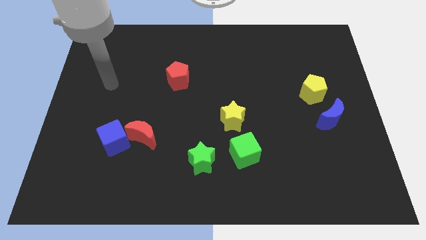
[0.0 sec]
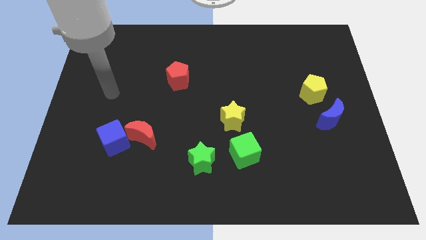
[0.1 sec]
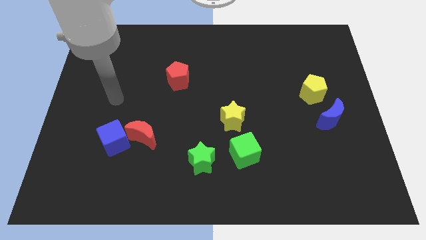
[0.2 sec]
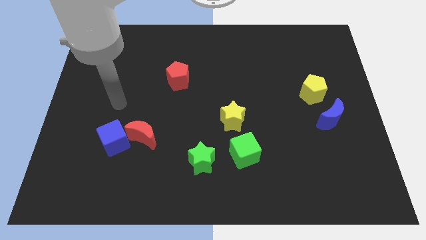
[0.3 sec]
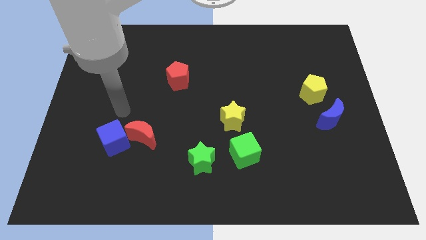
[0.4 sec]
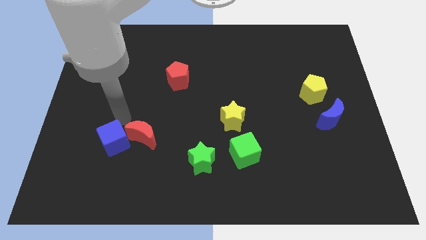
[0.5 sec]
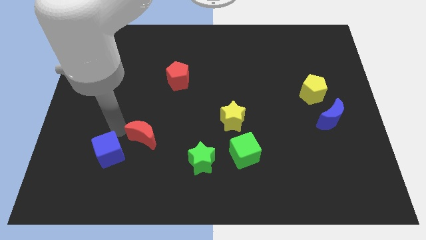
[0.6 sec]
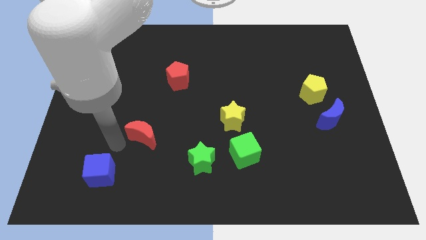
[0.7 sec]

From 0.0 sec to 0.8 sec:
move the red moon away from the blue cube

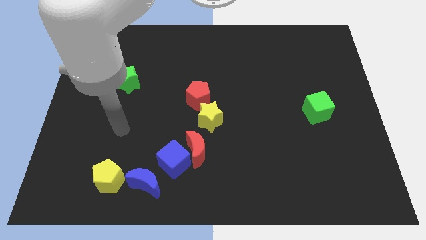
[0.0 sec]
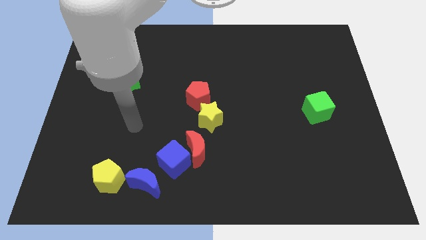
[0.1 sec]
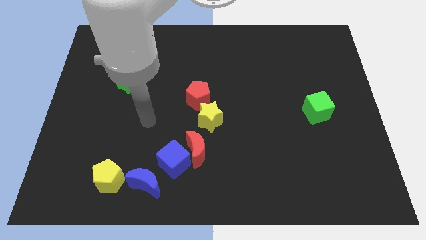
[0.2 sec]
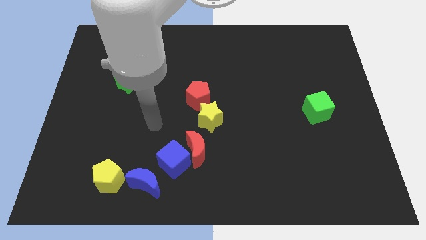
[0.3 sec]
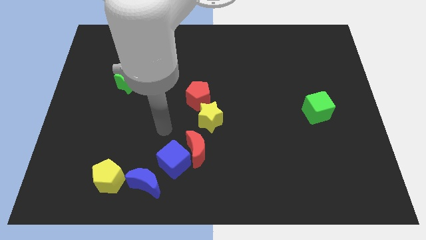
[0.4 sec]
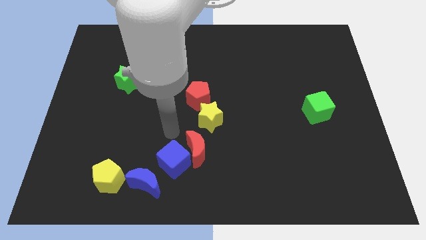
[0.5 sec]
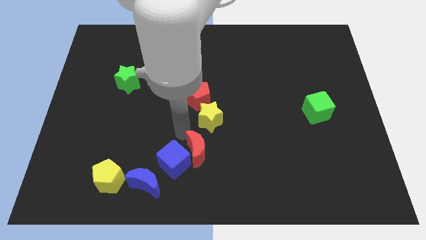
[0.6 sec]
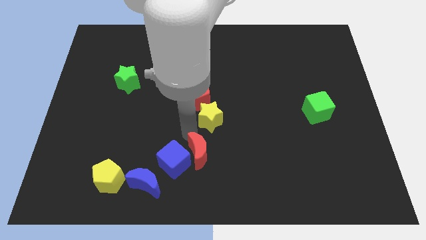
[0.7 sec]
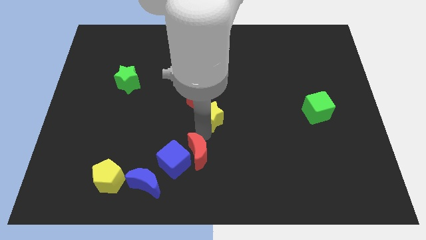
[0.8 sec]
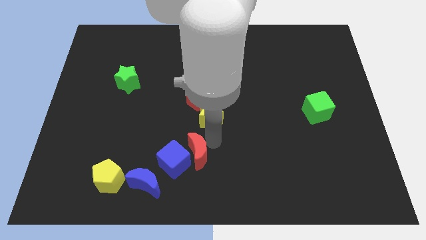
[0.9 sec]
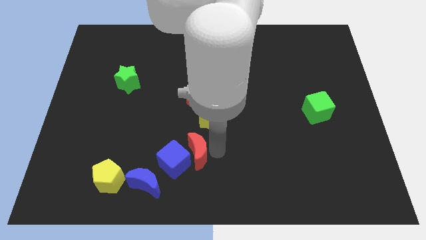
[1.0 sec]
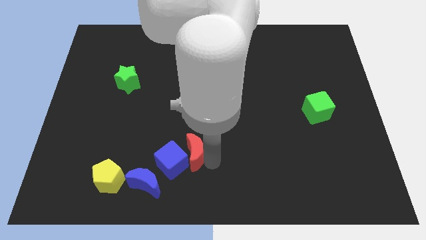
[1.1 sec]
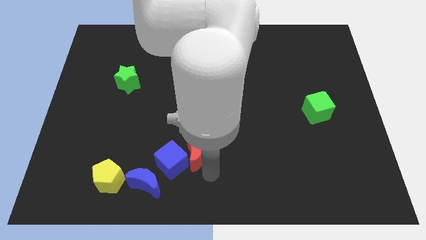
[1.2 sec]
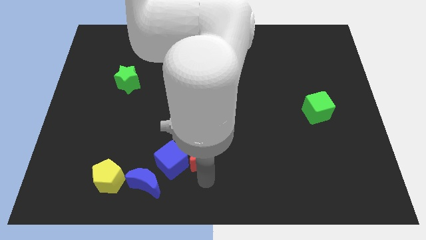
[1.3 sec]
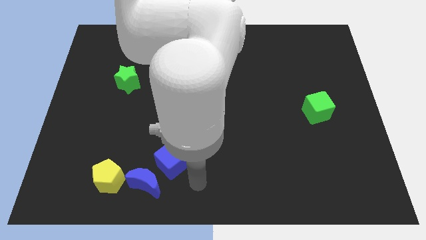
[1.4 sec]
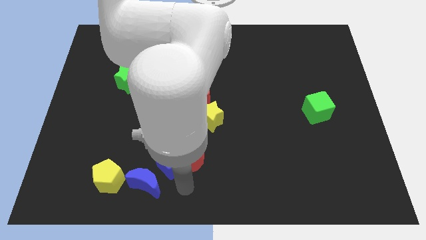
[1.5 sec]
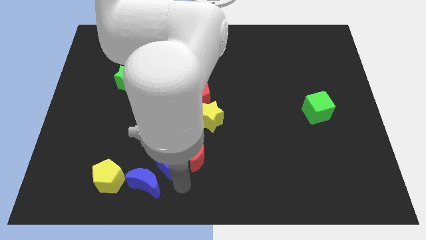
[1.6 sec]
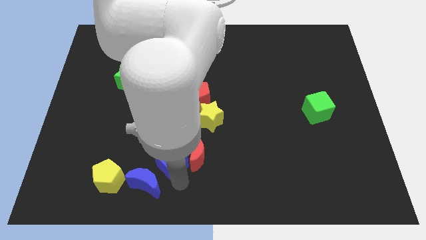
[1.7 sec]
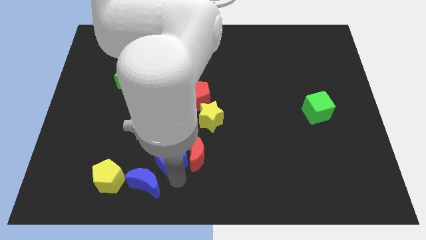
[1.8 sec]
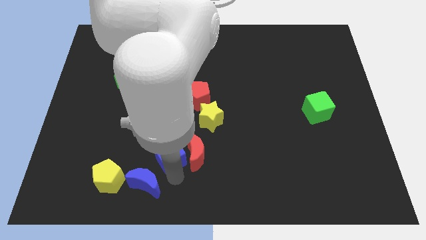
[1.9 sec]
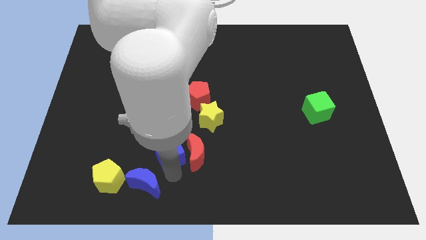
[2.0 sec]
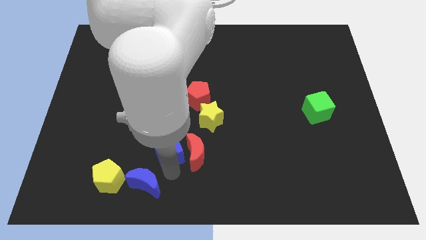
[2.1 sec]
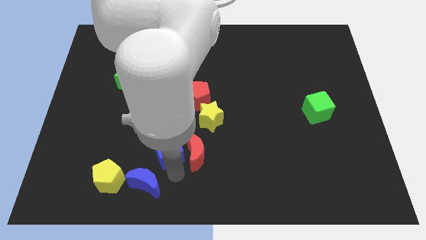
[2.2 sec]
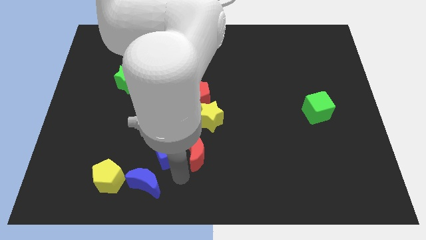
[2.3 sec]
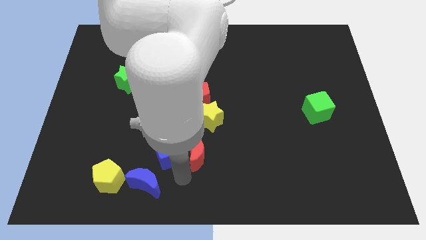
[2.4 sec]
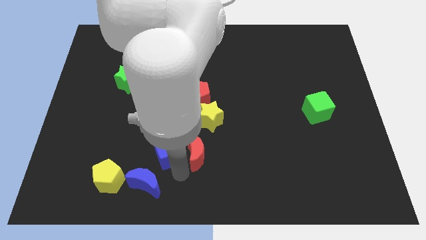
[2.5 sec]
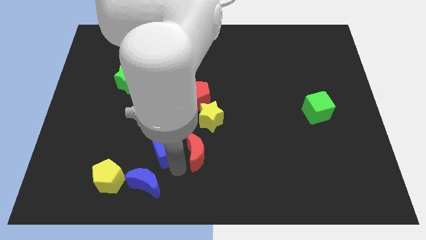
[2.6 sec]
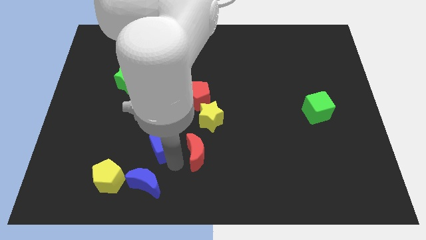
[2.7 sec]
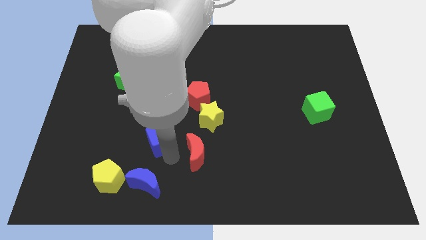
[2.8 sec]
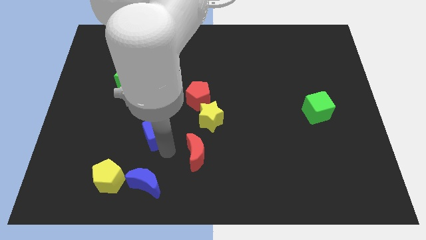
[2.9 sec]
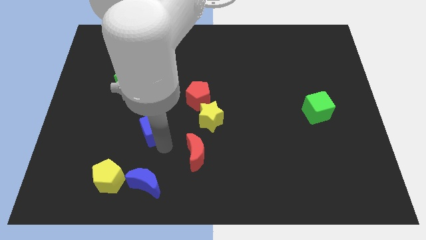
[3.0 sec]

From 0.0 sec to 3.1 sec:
move the blue cube away from the red moon and blue moon

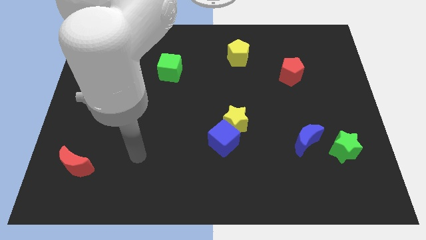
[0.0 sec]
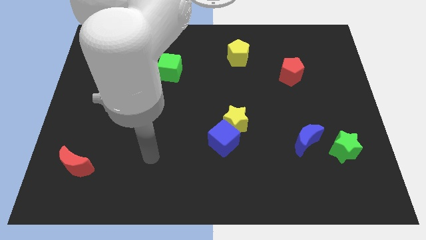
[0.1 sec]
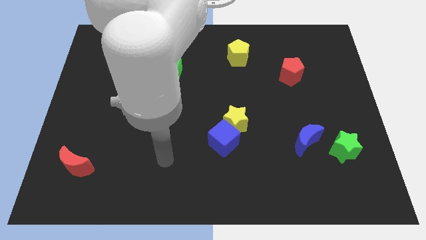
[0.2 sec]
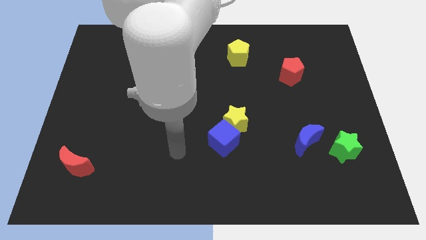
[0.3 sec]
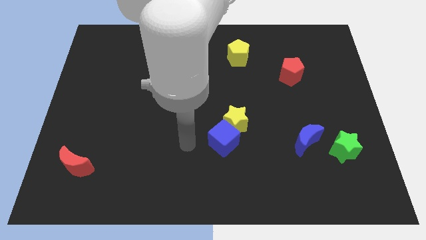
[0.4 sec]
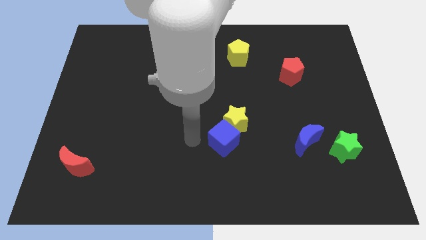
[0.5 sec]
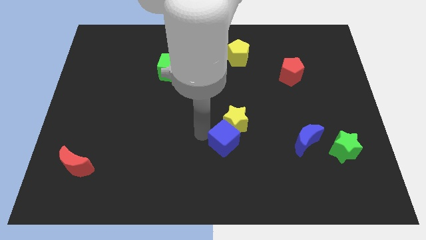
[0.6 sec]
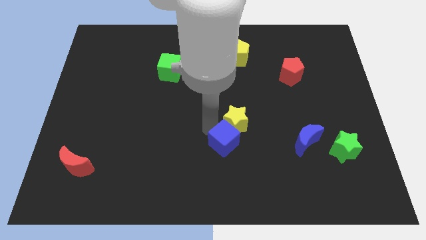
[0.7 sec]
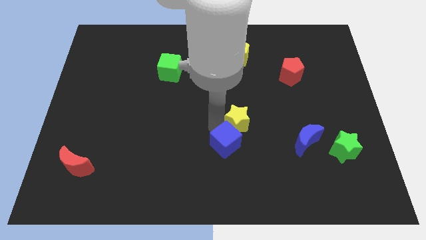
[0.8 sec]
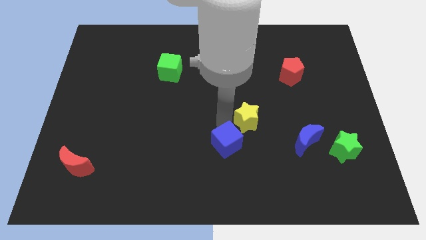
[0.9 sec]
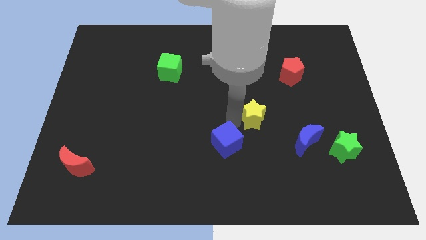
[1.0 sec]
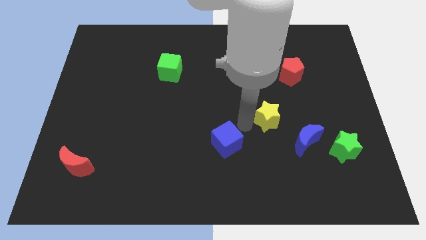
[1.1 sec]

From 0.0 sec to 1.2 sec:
move the blue cube away from the yellow star

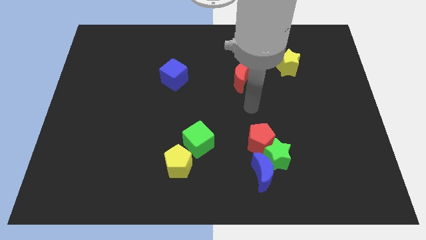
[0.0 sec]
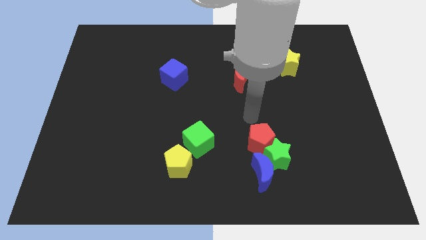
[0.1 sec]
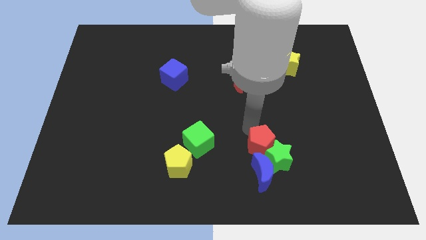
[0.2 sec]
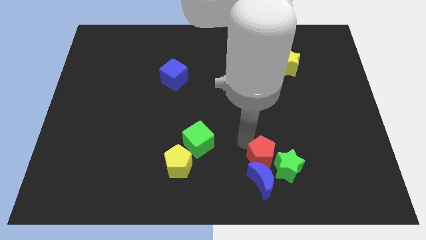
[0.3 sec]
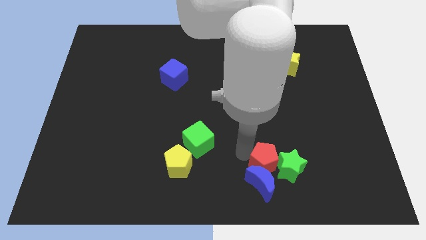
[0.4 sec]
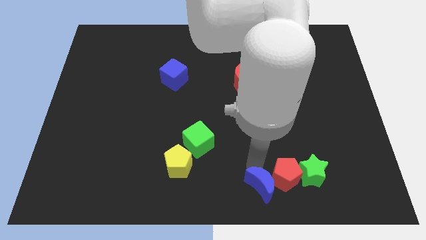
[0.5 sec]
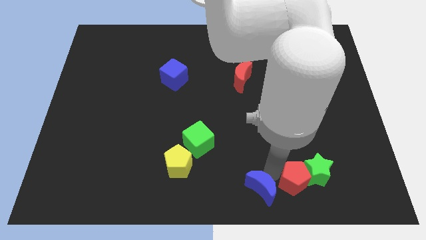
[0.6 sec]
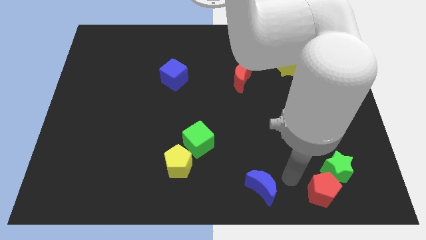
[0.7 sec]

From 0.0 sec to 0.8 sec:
pull the green star apart from the blue moon and red pentagon

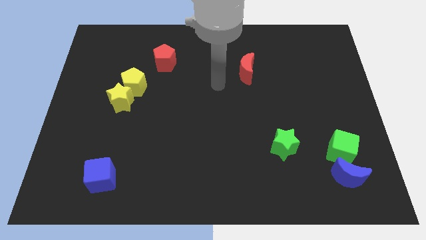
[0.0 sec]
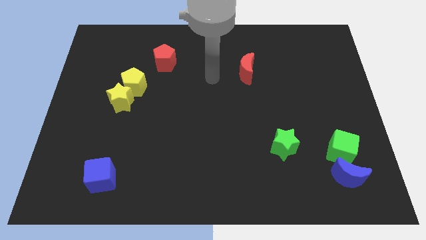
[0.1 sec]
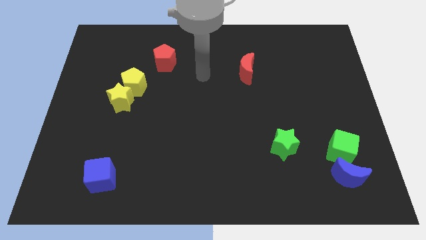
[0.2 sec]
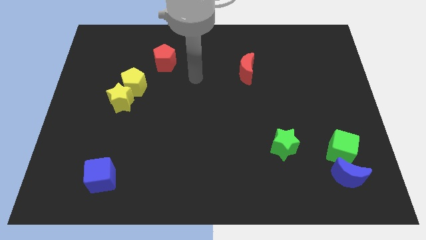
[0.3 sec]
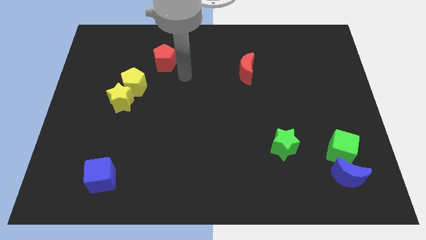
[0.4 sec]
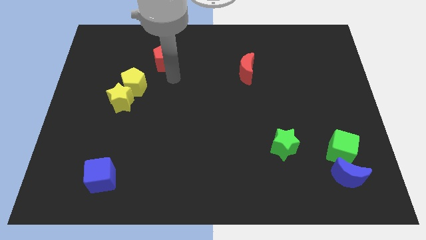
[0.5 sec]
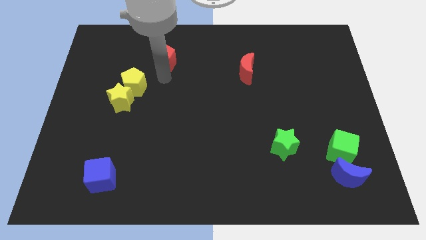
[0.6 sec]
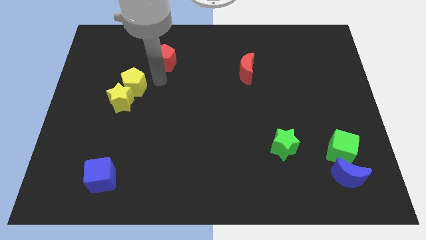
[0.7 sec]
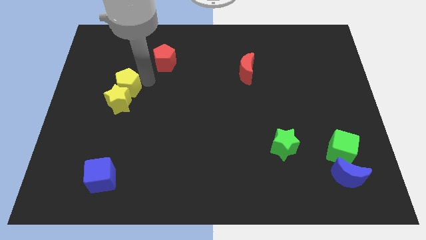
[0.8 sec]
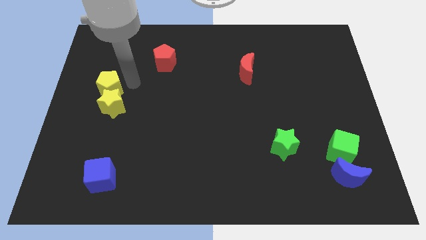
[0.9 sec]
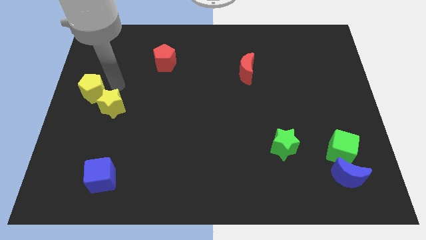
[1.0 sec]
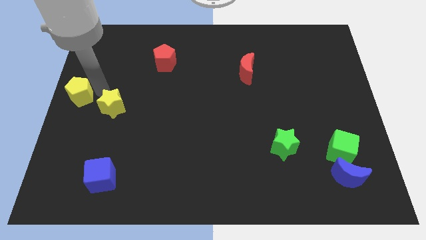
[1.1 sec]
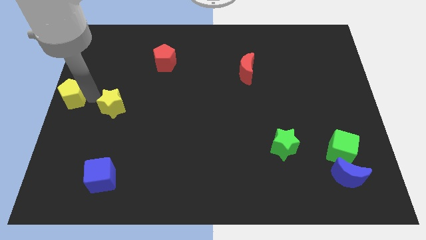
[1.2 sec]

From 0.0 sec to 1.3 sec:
move the yellow star away from the yellow pentagon

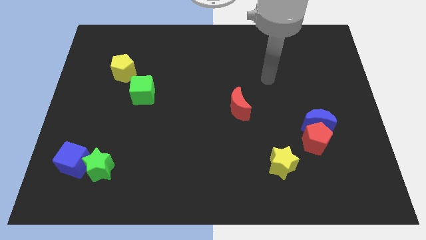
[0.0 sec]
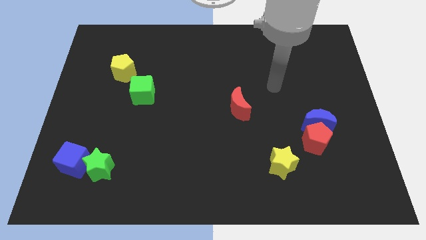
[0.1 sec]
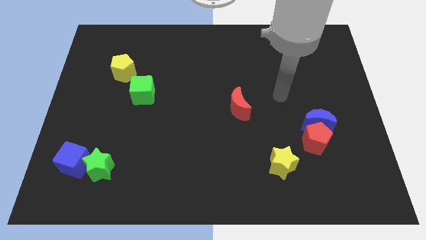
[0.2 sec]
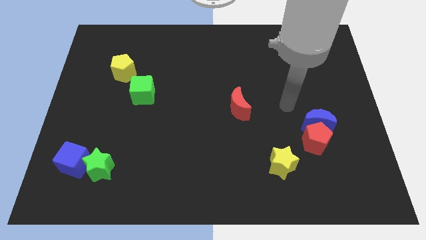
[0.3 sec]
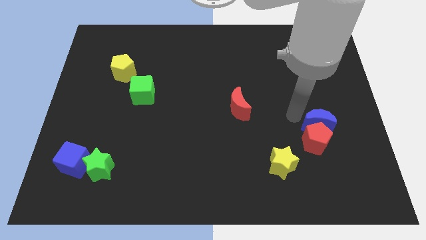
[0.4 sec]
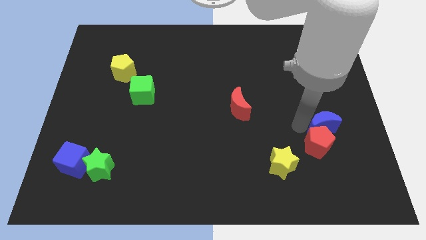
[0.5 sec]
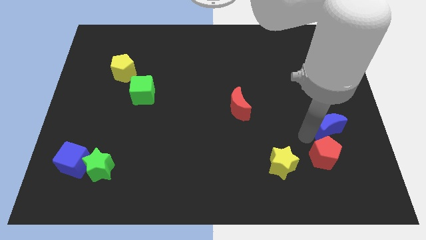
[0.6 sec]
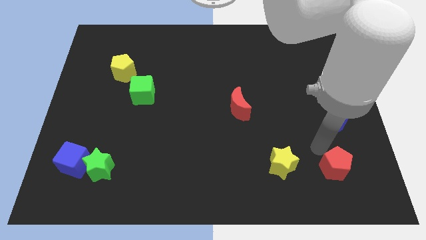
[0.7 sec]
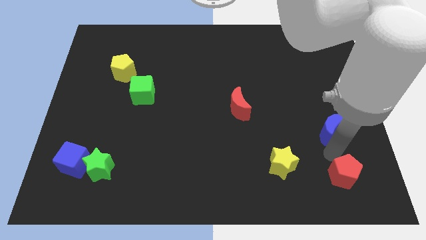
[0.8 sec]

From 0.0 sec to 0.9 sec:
separate the blue moon from the red pentagon

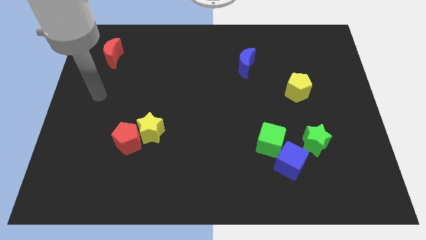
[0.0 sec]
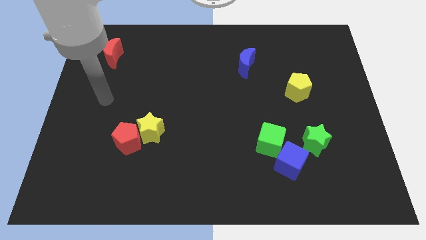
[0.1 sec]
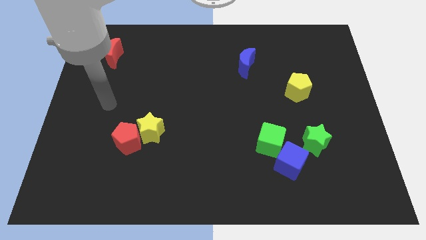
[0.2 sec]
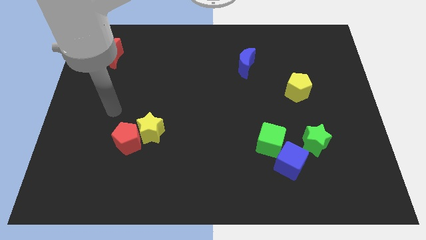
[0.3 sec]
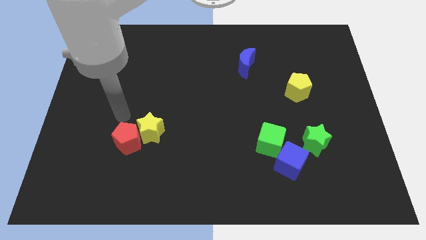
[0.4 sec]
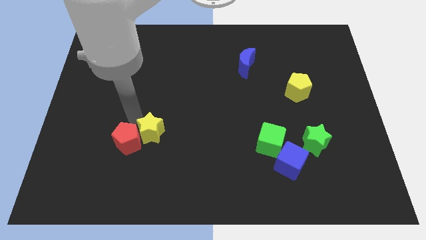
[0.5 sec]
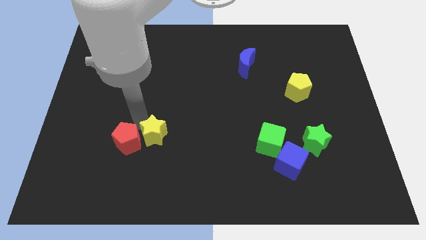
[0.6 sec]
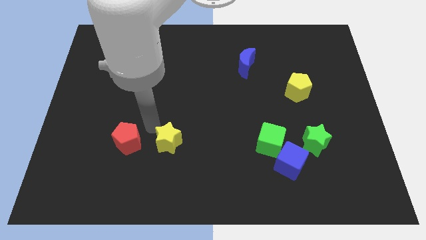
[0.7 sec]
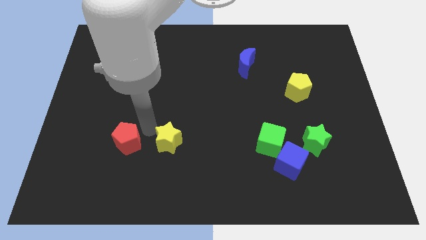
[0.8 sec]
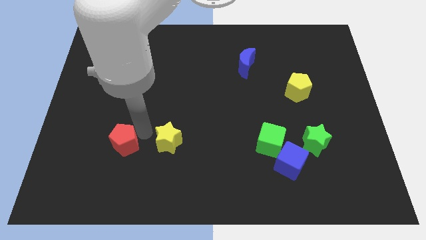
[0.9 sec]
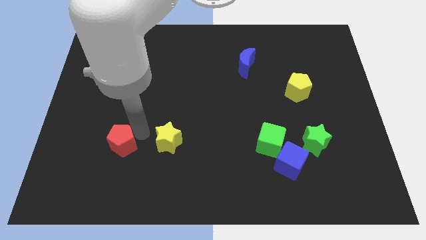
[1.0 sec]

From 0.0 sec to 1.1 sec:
pull the red pentagon apart from the yellow star
